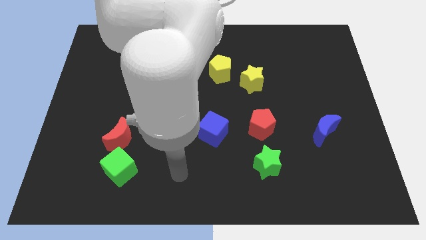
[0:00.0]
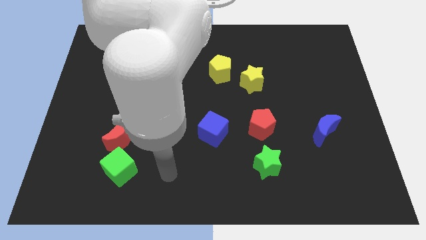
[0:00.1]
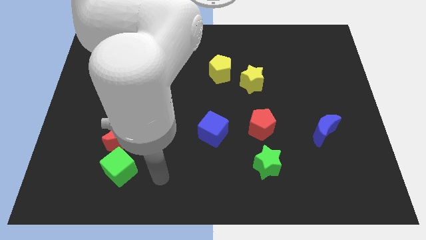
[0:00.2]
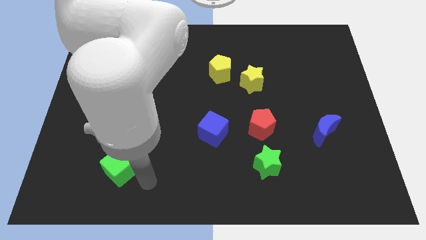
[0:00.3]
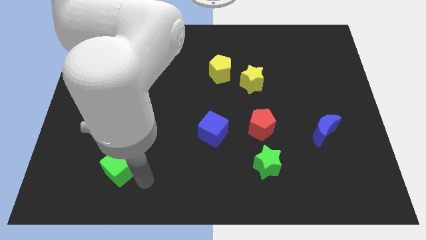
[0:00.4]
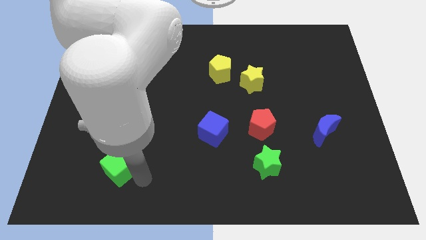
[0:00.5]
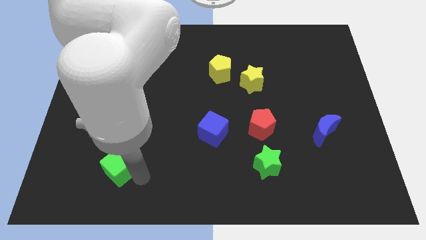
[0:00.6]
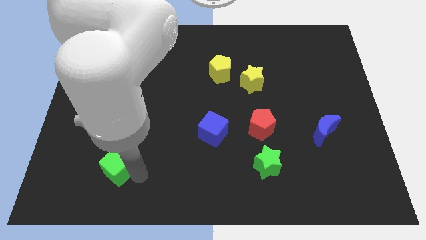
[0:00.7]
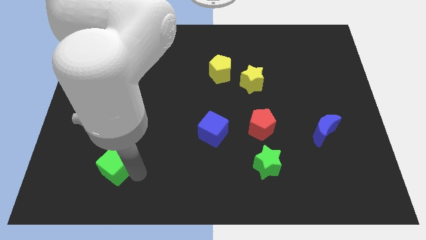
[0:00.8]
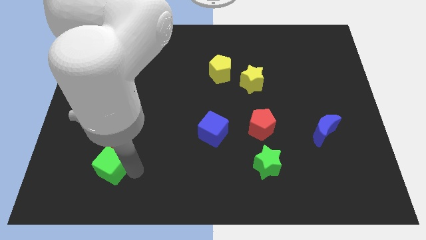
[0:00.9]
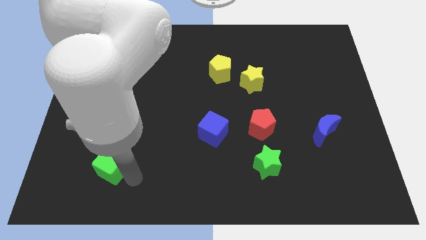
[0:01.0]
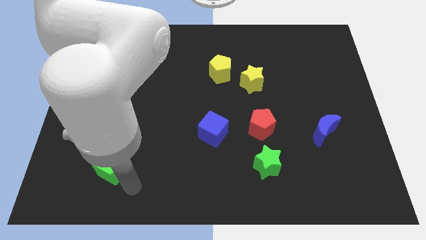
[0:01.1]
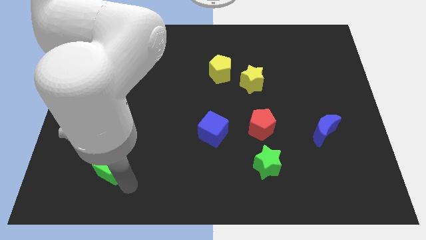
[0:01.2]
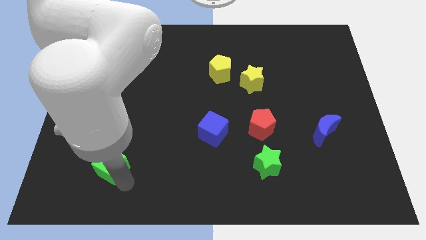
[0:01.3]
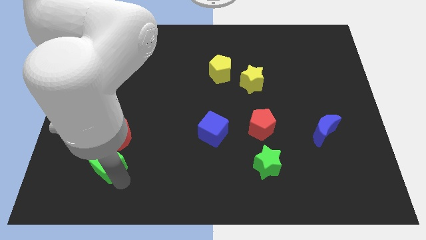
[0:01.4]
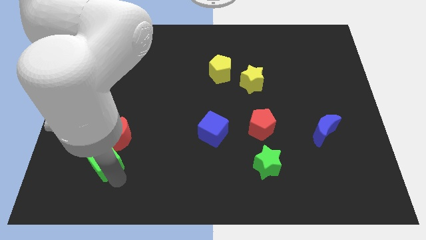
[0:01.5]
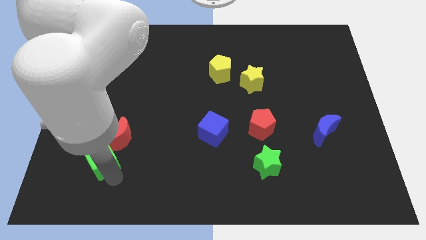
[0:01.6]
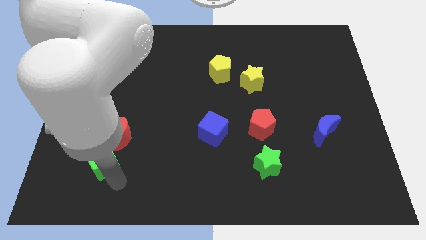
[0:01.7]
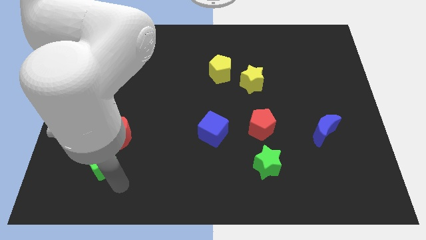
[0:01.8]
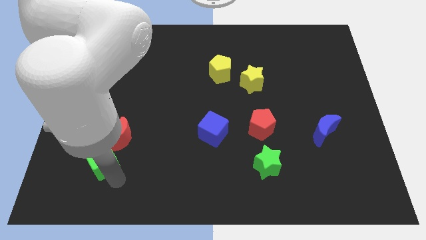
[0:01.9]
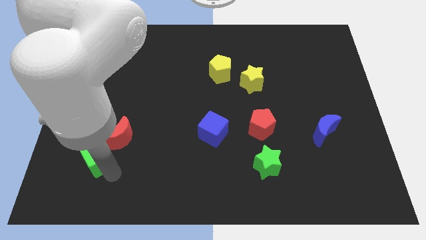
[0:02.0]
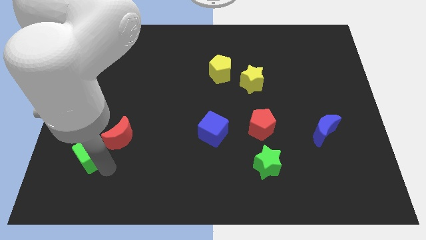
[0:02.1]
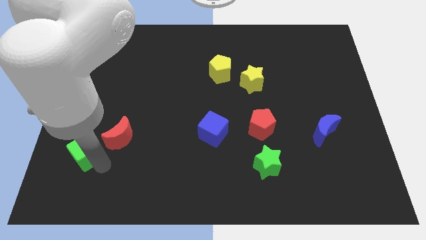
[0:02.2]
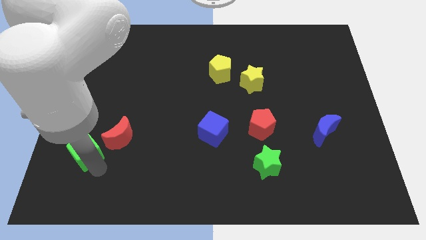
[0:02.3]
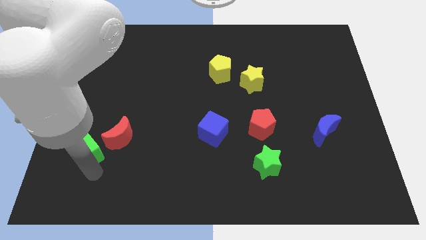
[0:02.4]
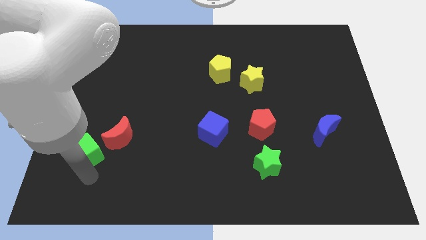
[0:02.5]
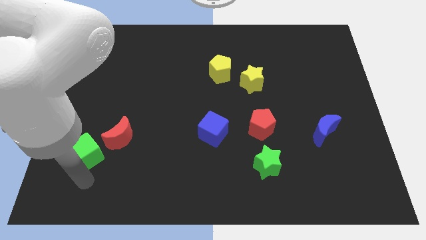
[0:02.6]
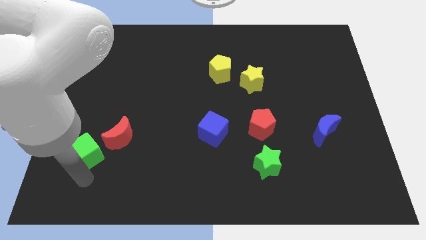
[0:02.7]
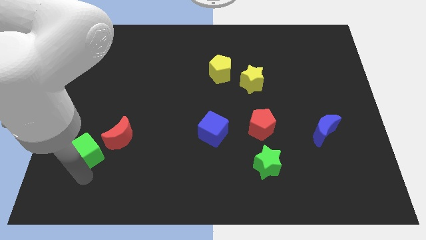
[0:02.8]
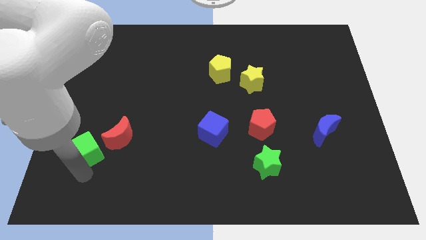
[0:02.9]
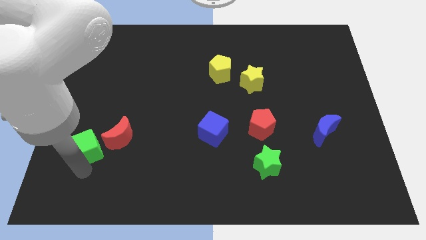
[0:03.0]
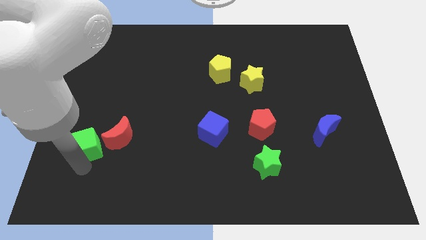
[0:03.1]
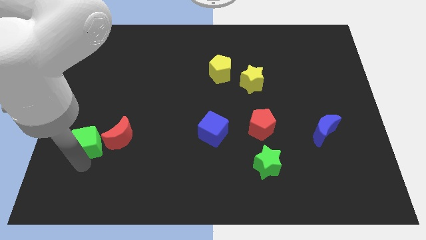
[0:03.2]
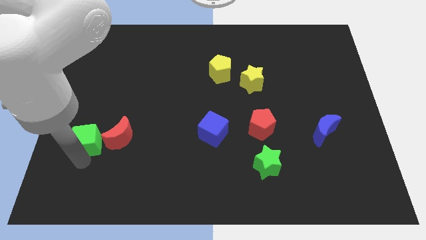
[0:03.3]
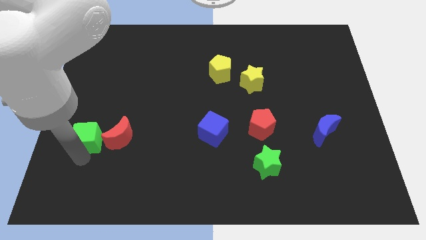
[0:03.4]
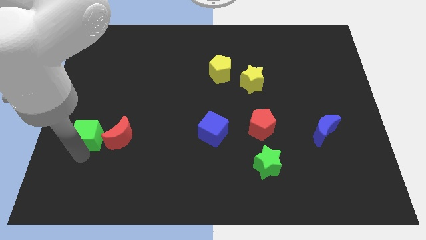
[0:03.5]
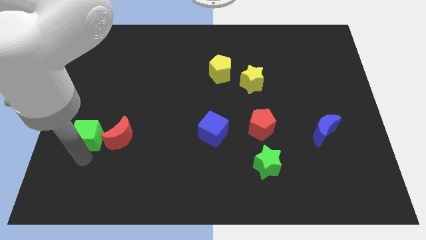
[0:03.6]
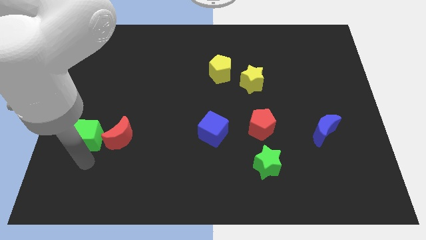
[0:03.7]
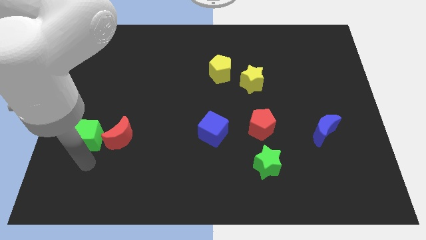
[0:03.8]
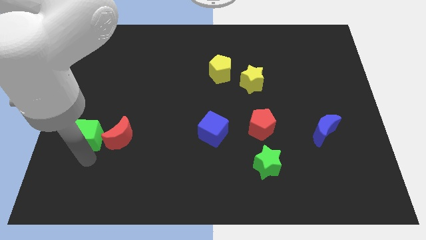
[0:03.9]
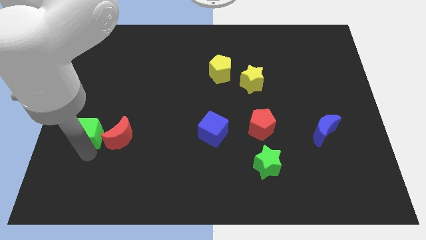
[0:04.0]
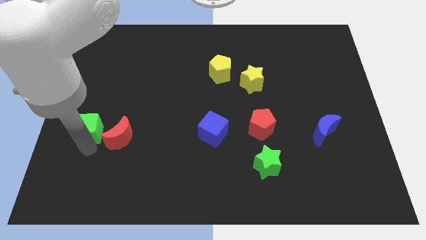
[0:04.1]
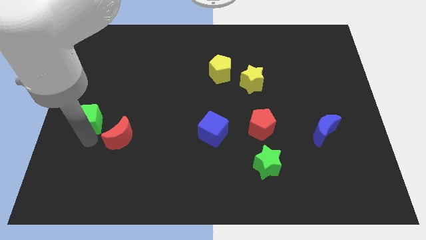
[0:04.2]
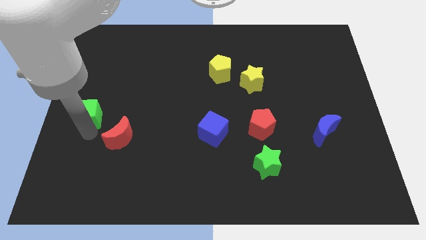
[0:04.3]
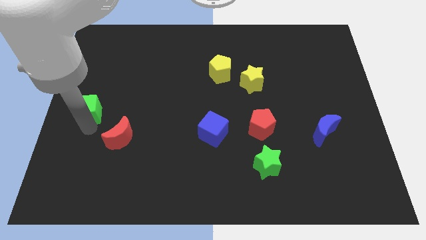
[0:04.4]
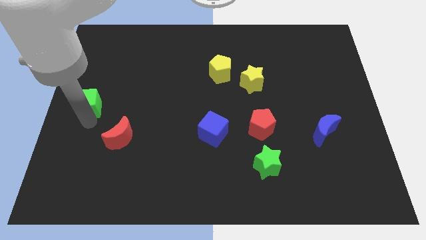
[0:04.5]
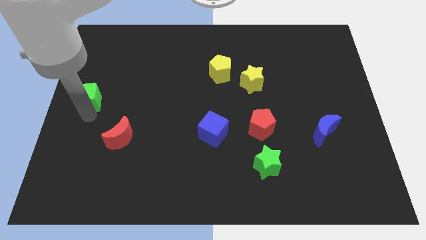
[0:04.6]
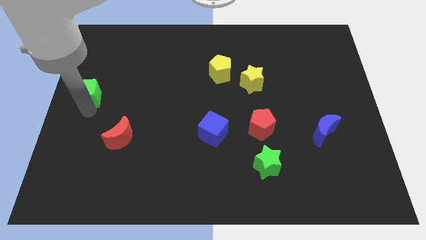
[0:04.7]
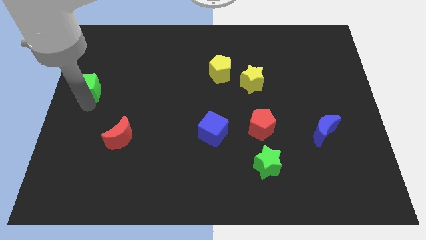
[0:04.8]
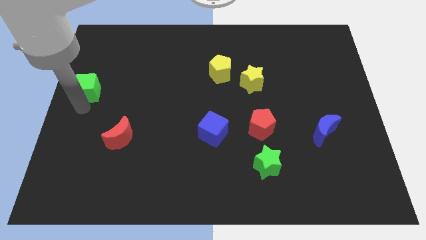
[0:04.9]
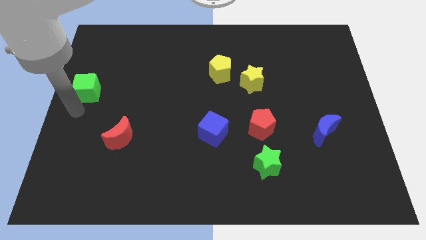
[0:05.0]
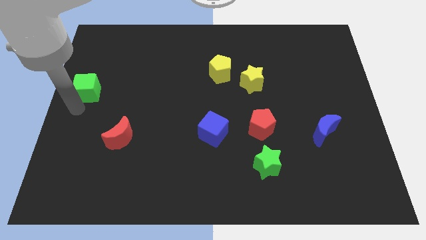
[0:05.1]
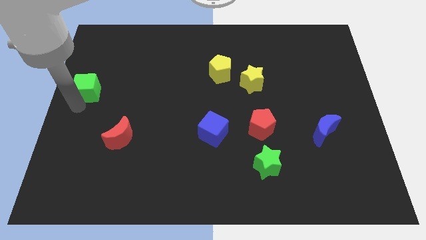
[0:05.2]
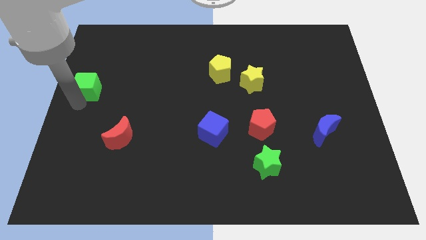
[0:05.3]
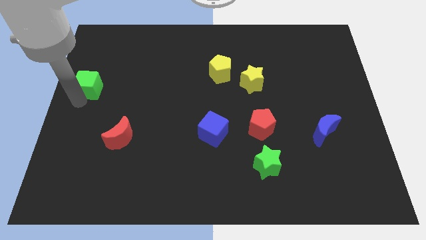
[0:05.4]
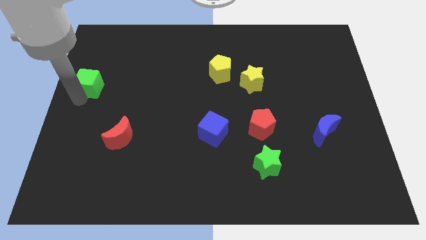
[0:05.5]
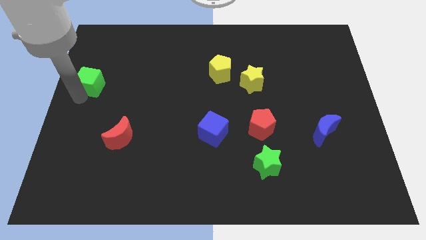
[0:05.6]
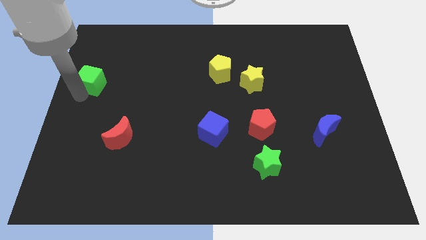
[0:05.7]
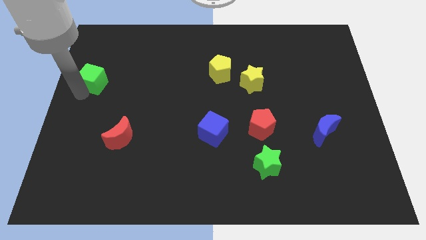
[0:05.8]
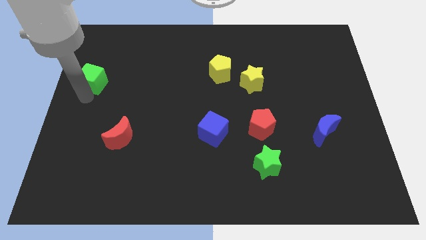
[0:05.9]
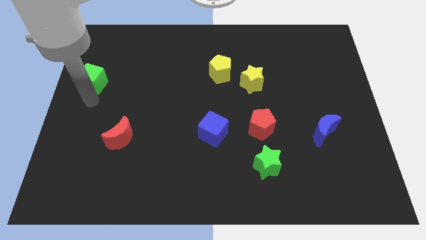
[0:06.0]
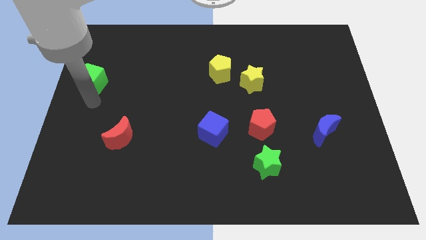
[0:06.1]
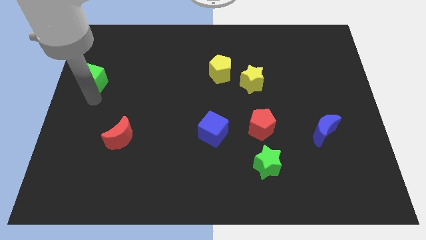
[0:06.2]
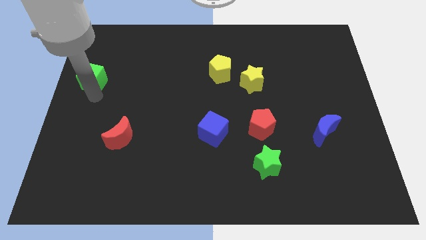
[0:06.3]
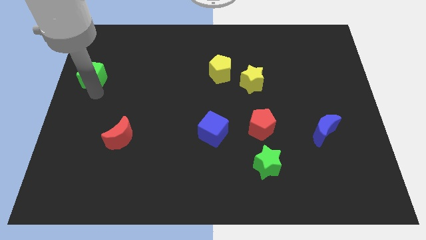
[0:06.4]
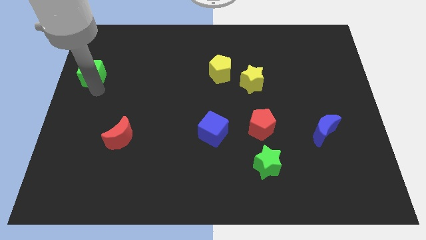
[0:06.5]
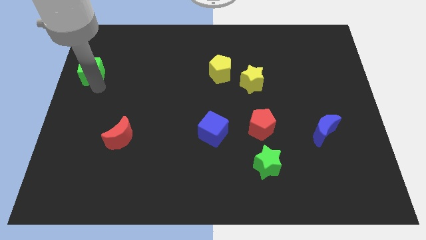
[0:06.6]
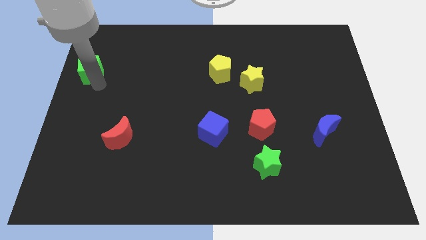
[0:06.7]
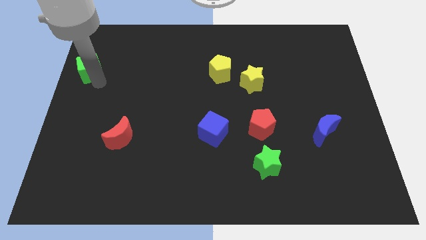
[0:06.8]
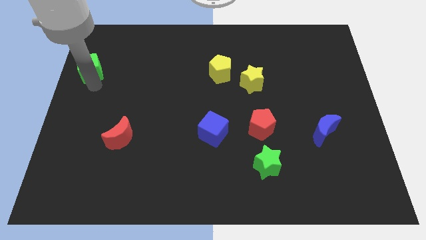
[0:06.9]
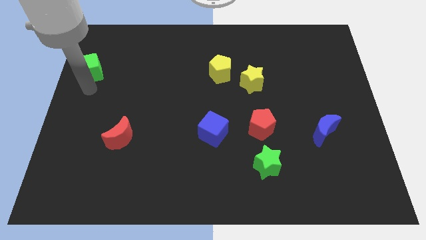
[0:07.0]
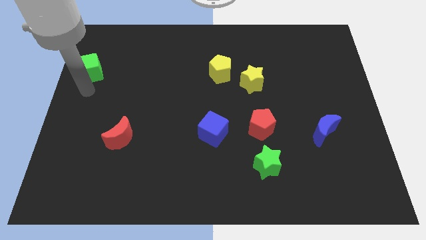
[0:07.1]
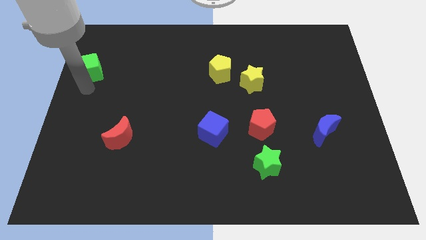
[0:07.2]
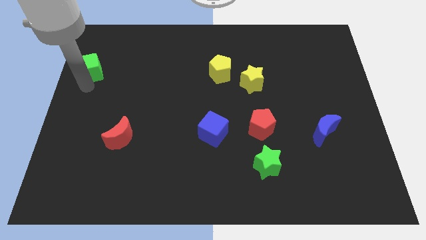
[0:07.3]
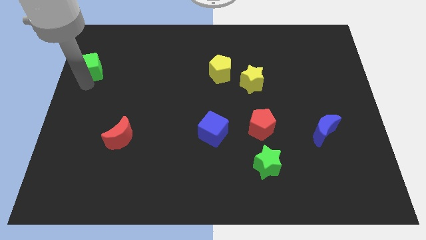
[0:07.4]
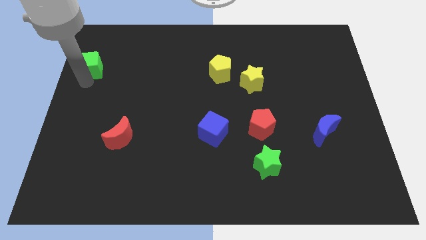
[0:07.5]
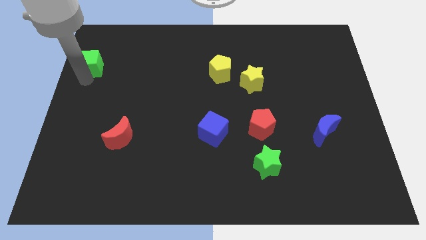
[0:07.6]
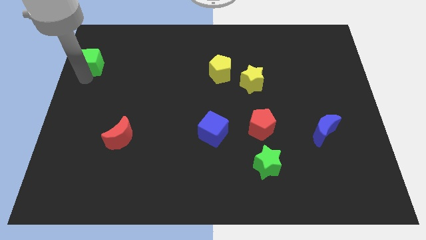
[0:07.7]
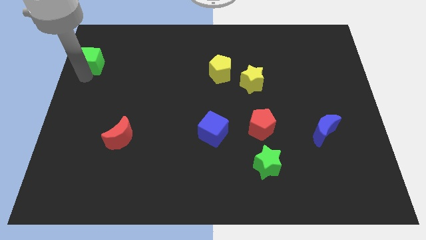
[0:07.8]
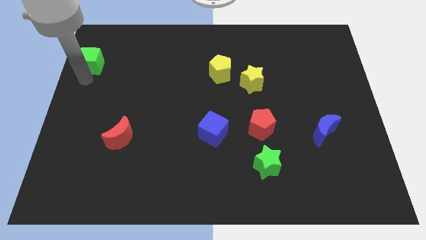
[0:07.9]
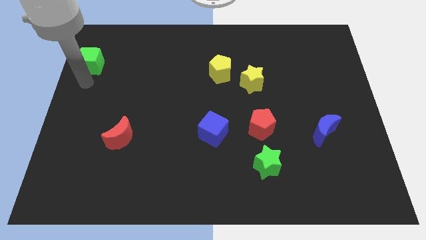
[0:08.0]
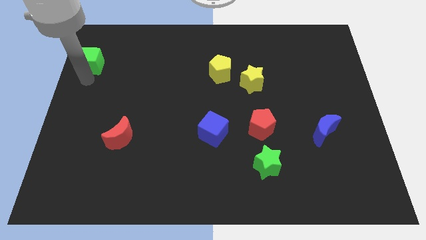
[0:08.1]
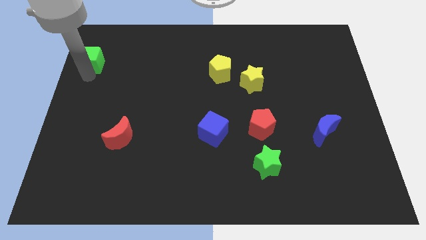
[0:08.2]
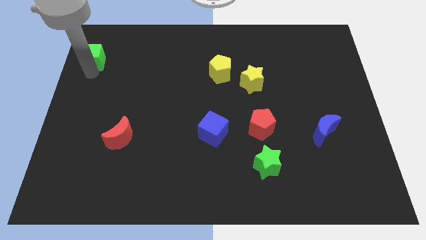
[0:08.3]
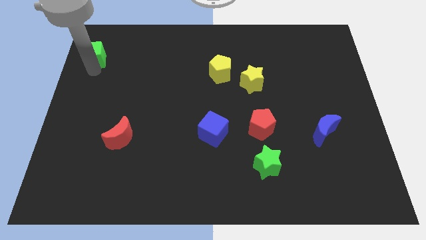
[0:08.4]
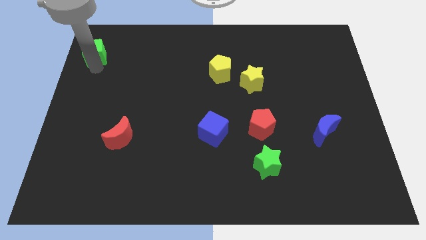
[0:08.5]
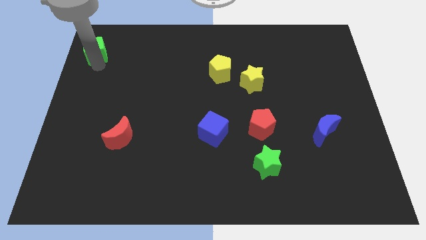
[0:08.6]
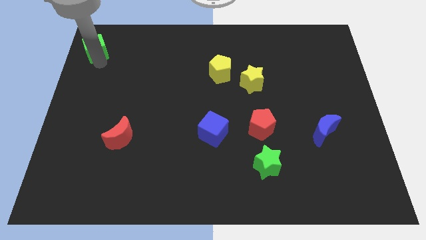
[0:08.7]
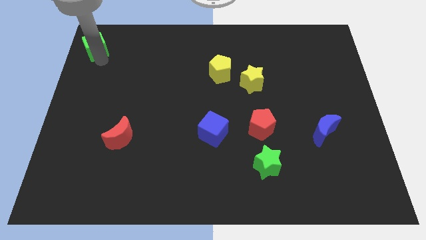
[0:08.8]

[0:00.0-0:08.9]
put the green cube to the top left of the board
